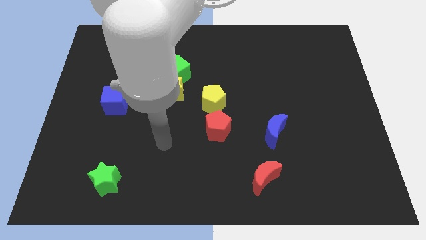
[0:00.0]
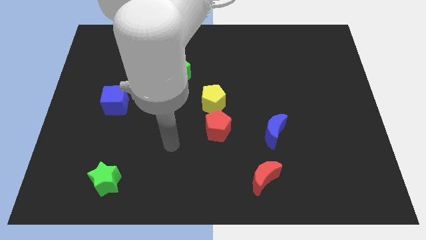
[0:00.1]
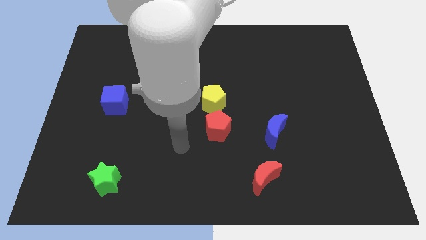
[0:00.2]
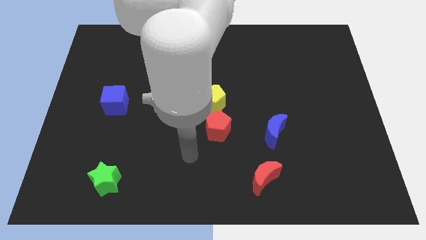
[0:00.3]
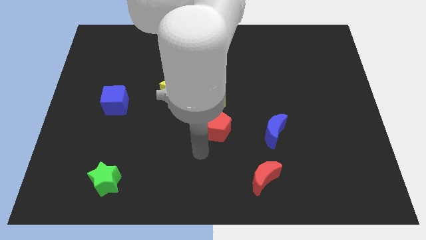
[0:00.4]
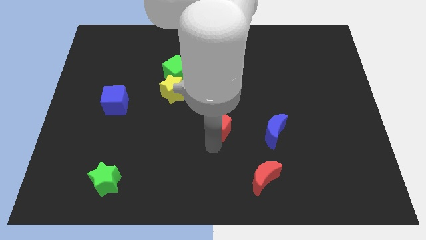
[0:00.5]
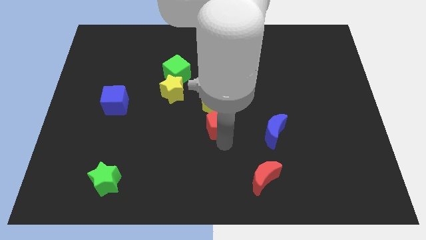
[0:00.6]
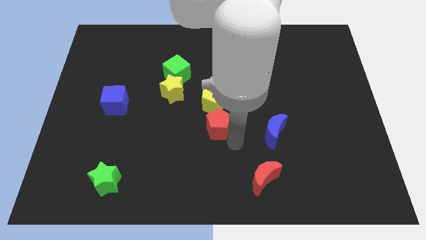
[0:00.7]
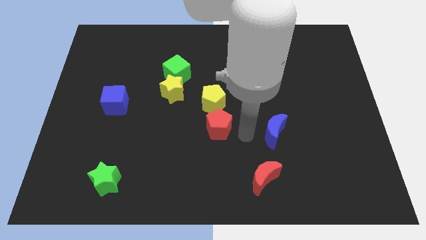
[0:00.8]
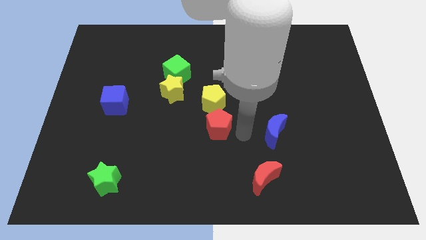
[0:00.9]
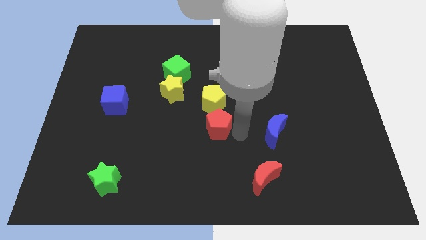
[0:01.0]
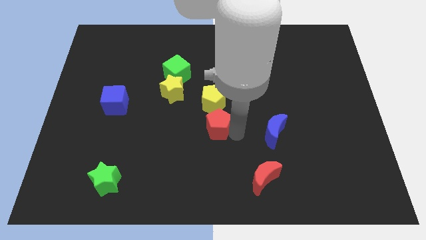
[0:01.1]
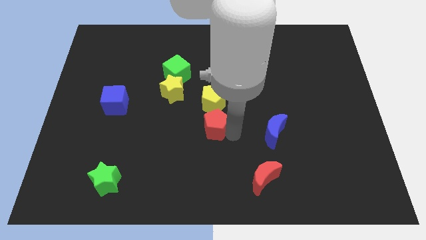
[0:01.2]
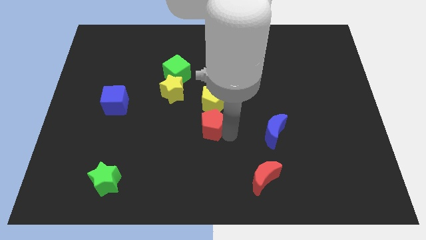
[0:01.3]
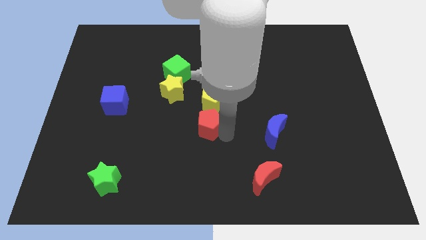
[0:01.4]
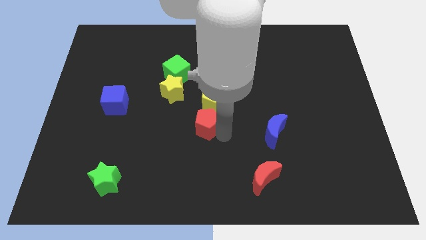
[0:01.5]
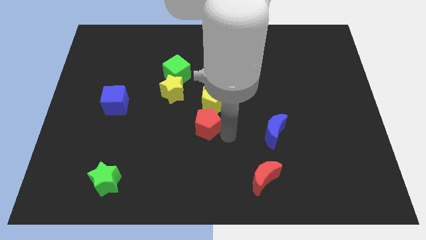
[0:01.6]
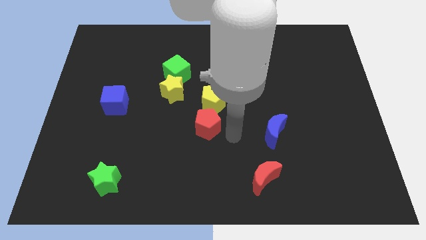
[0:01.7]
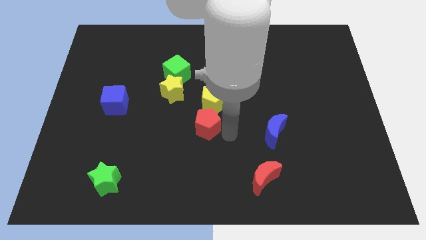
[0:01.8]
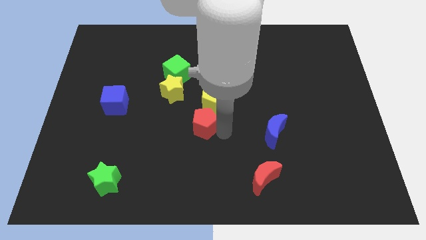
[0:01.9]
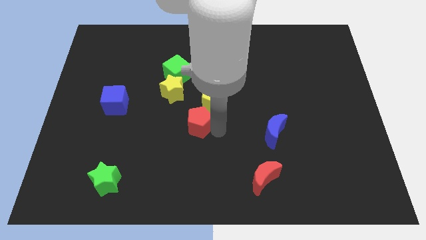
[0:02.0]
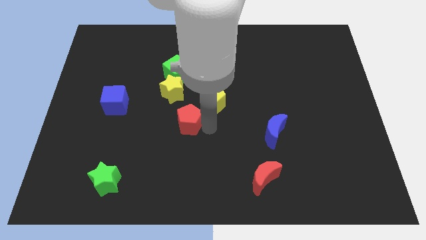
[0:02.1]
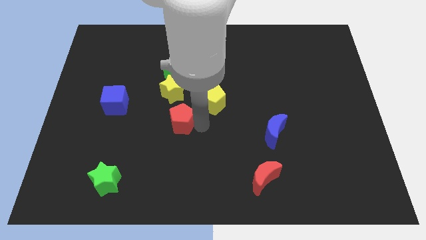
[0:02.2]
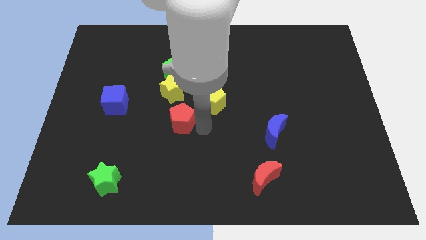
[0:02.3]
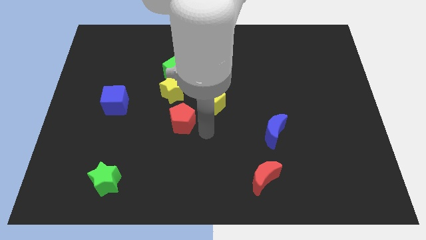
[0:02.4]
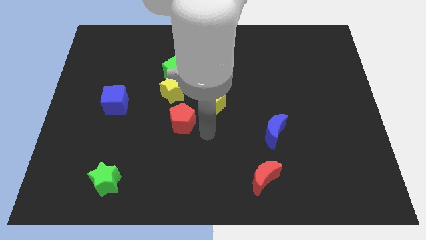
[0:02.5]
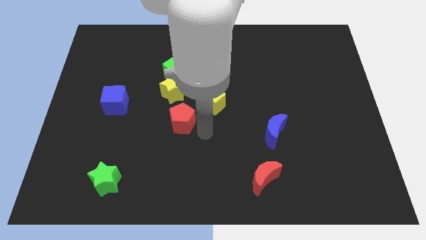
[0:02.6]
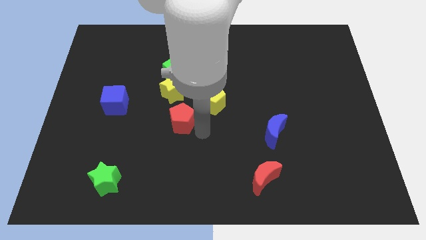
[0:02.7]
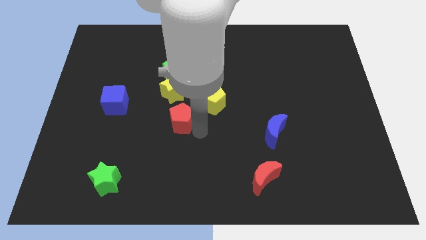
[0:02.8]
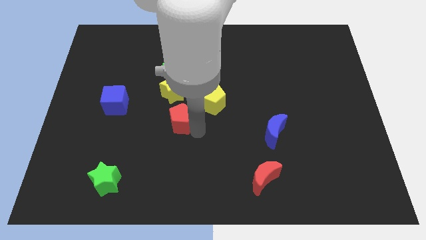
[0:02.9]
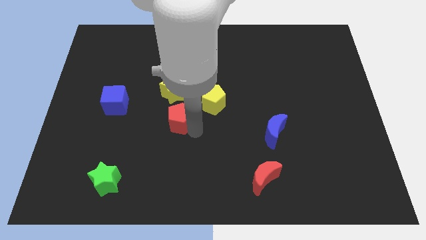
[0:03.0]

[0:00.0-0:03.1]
move the red pentagon slightly diagonally upwards and left

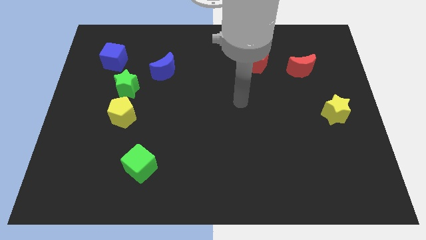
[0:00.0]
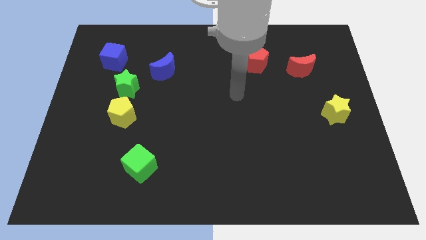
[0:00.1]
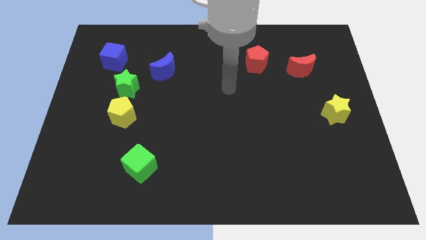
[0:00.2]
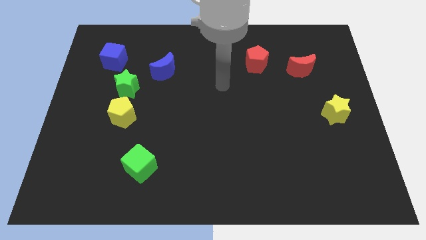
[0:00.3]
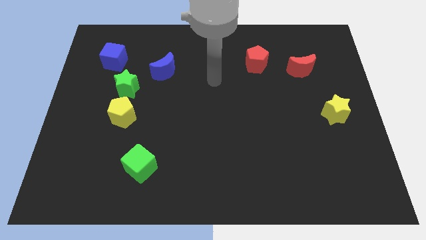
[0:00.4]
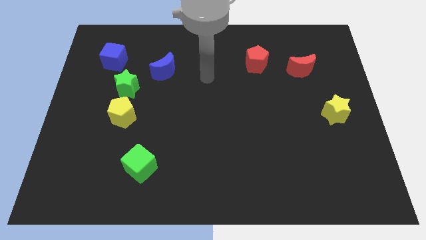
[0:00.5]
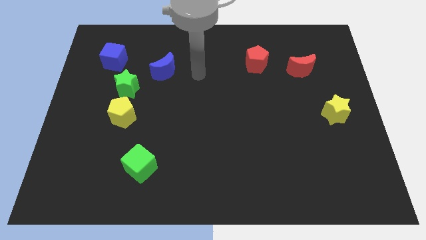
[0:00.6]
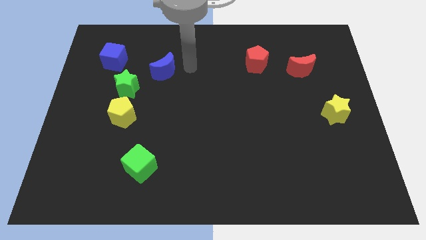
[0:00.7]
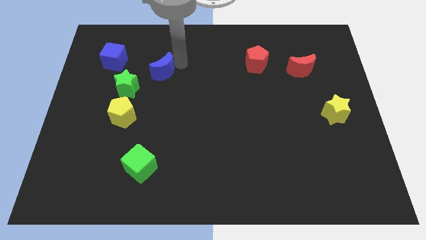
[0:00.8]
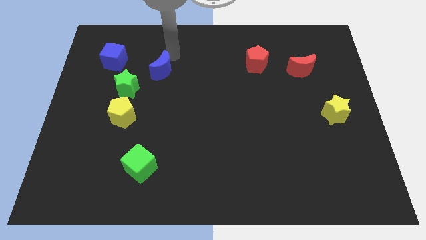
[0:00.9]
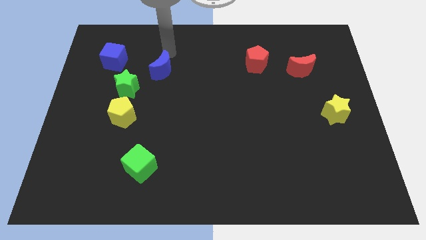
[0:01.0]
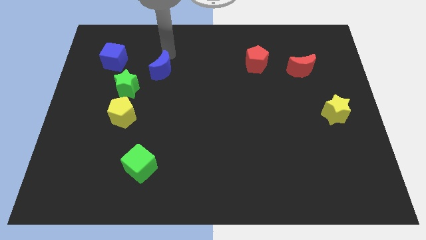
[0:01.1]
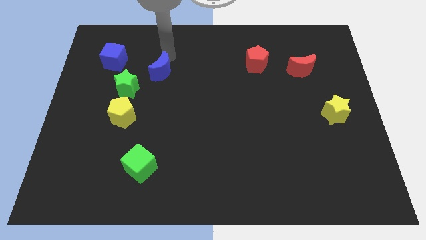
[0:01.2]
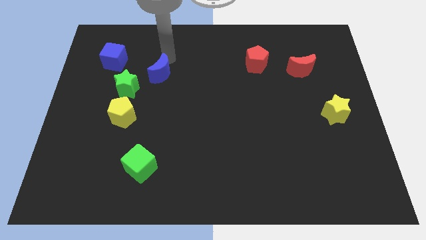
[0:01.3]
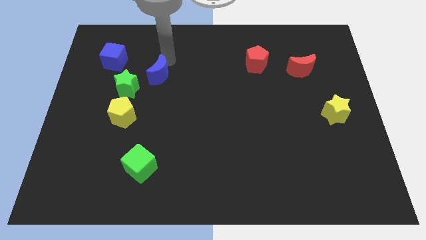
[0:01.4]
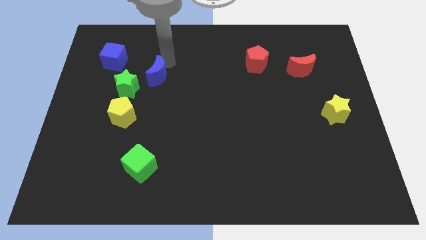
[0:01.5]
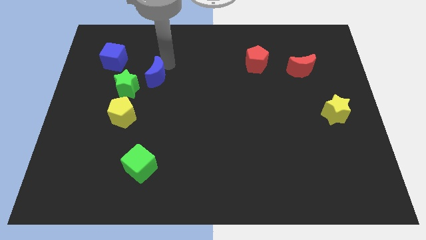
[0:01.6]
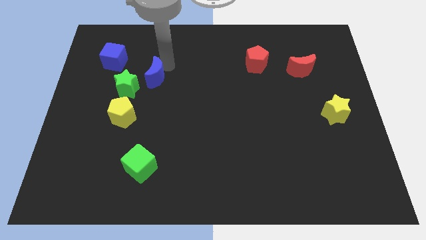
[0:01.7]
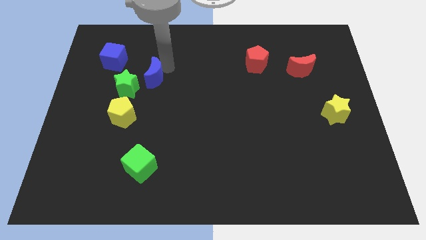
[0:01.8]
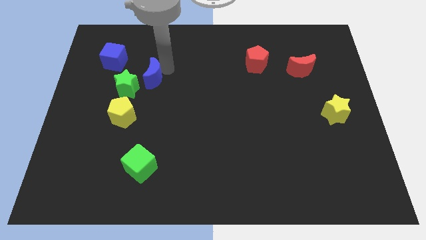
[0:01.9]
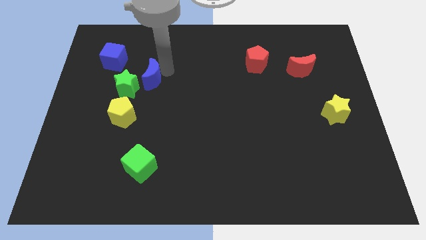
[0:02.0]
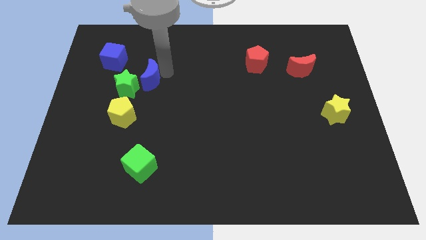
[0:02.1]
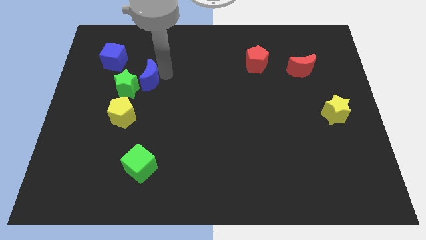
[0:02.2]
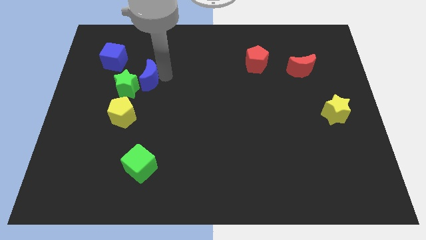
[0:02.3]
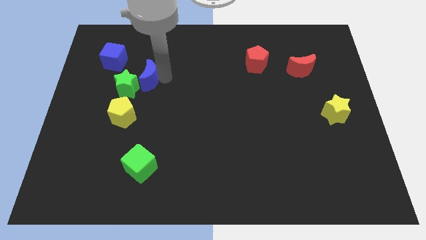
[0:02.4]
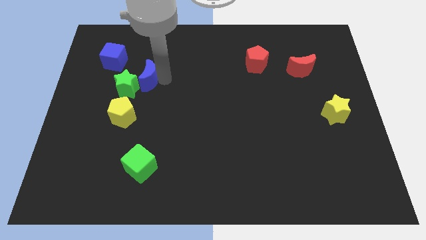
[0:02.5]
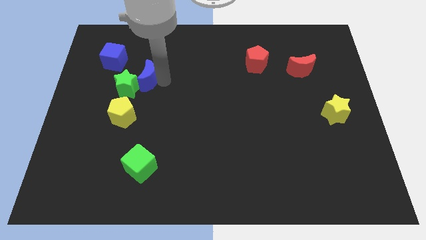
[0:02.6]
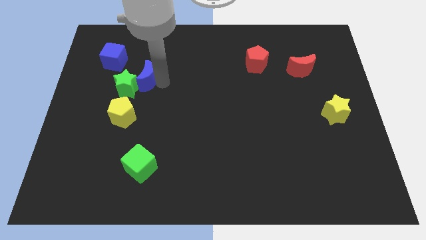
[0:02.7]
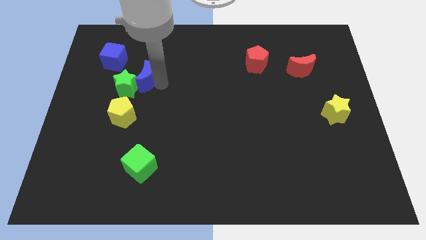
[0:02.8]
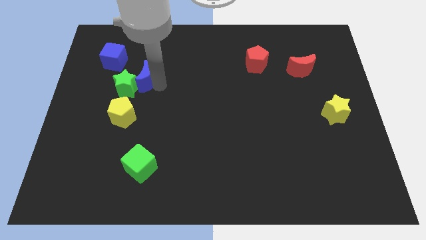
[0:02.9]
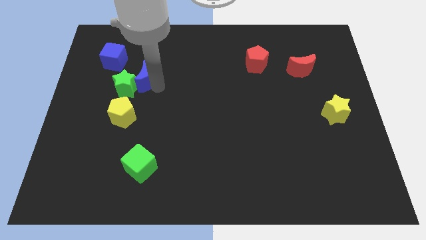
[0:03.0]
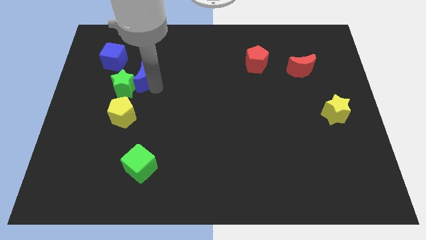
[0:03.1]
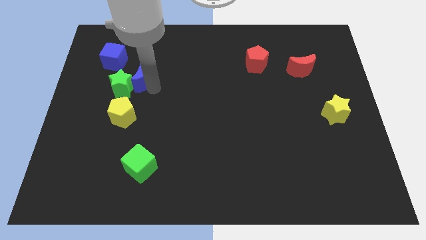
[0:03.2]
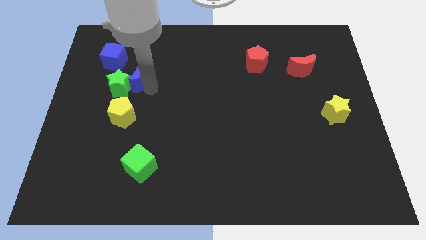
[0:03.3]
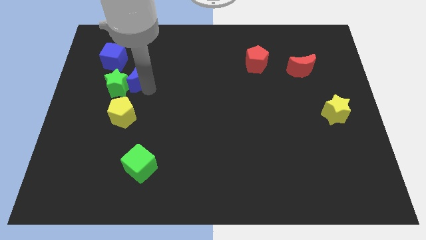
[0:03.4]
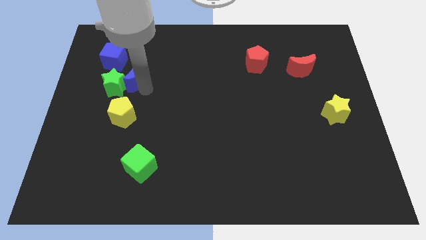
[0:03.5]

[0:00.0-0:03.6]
slide the blue moon diagonally downwards and left somewhat

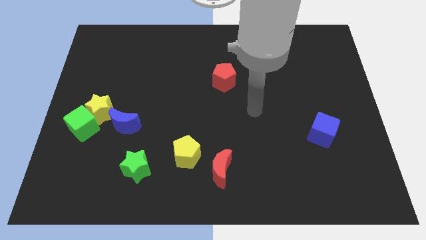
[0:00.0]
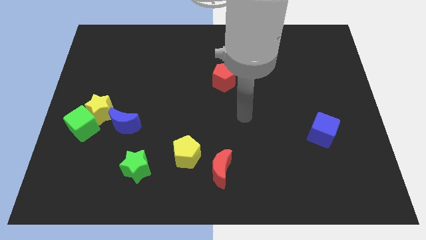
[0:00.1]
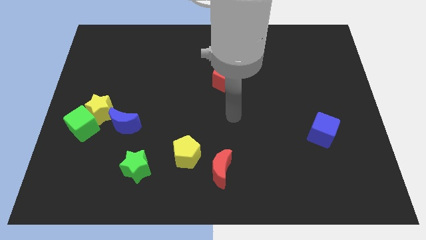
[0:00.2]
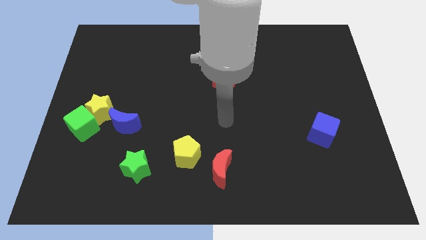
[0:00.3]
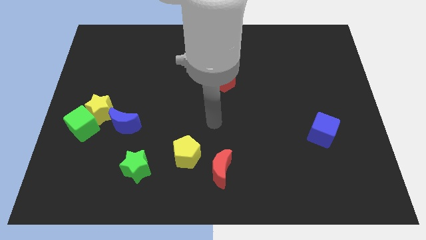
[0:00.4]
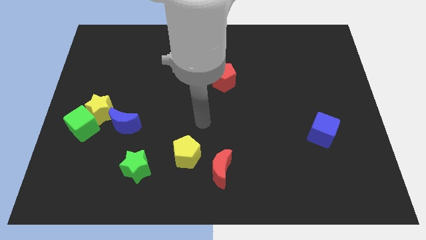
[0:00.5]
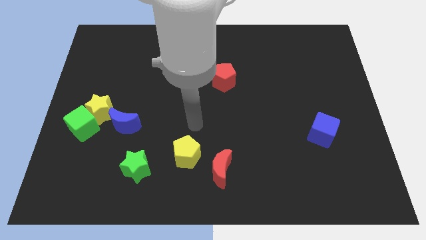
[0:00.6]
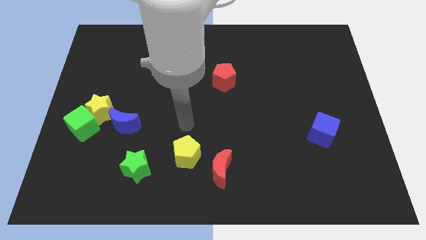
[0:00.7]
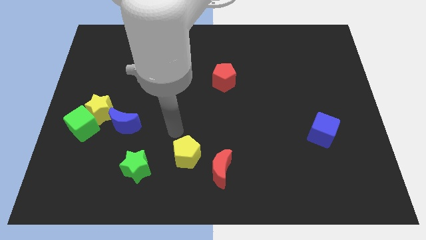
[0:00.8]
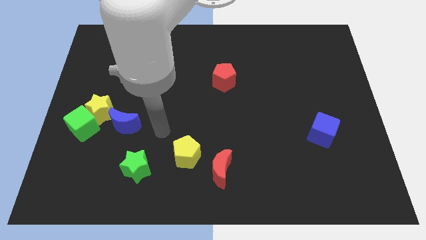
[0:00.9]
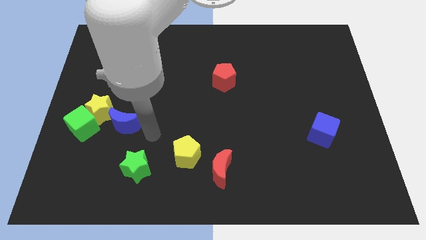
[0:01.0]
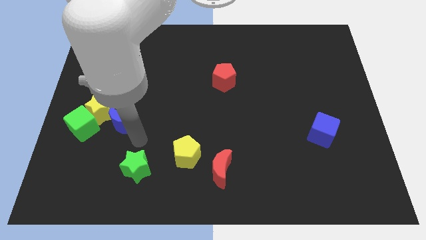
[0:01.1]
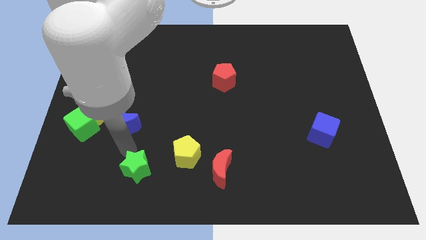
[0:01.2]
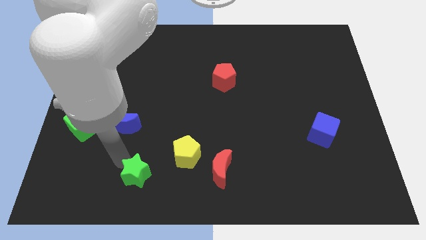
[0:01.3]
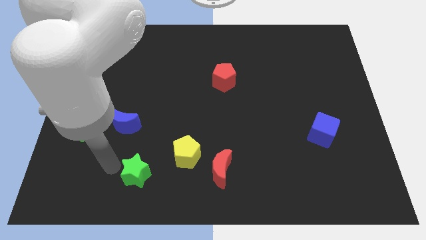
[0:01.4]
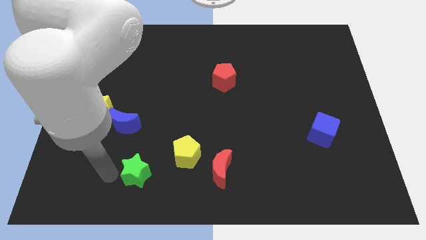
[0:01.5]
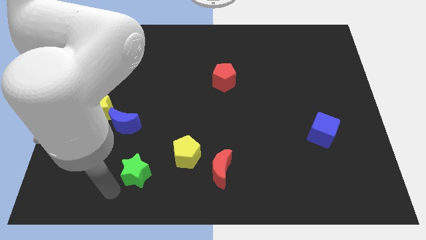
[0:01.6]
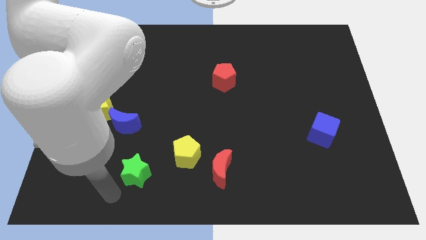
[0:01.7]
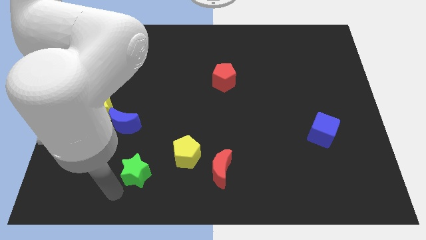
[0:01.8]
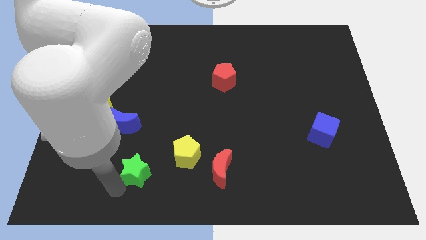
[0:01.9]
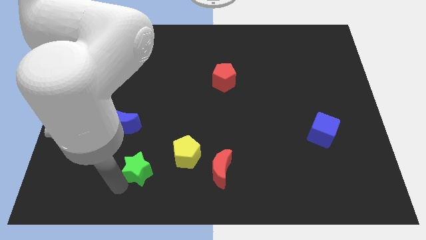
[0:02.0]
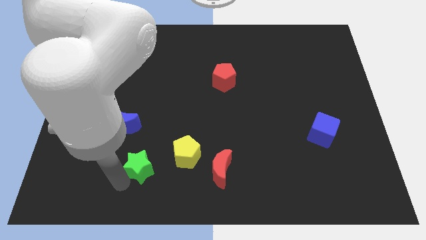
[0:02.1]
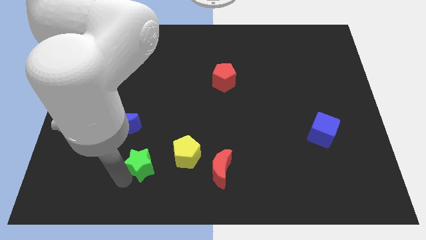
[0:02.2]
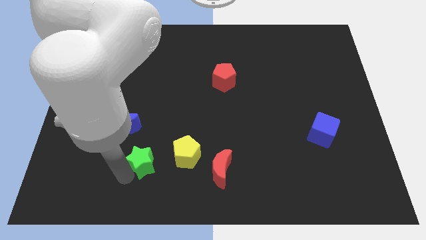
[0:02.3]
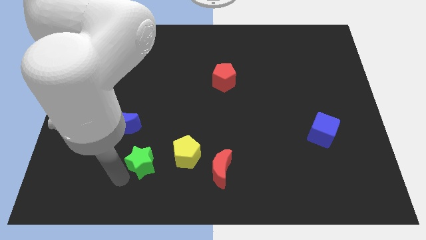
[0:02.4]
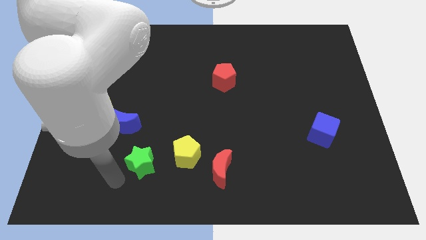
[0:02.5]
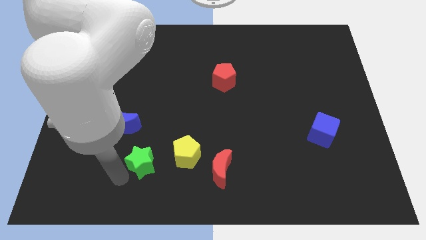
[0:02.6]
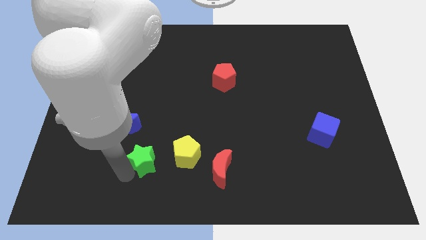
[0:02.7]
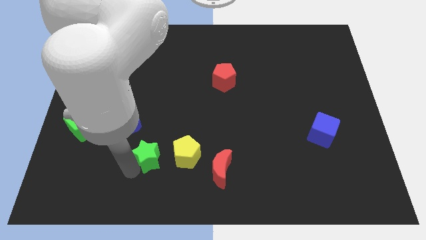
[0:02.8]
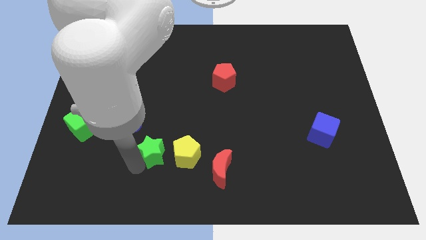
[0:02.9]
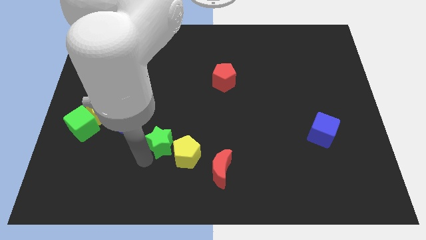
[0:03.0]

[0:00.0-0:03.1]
move the green star a little upwards and then to the right
